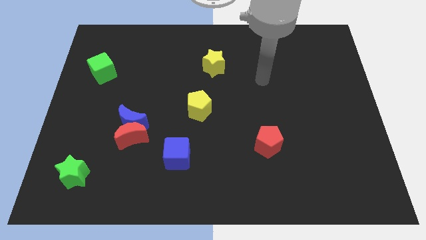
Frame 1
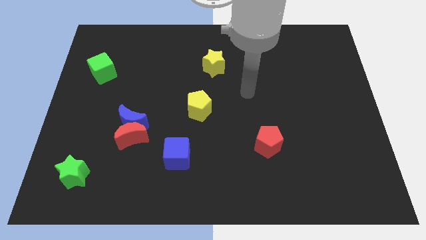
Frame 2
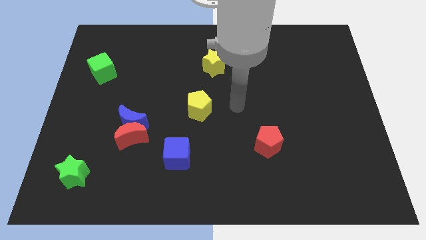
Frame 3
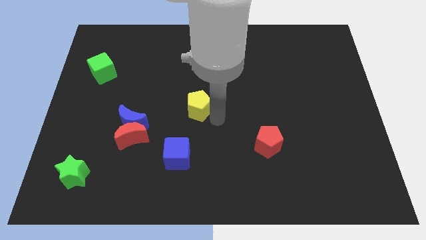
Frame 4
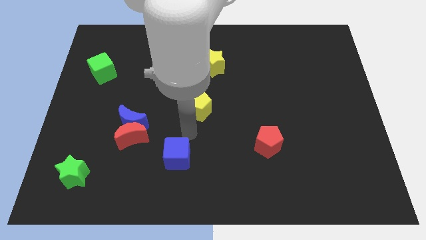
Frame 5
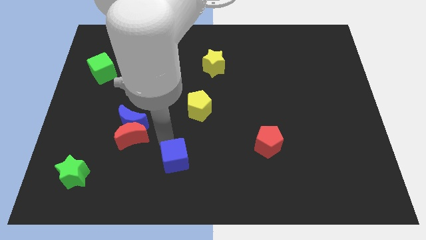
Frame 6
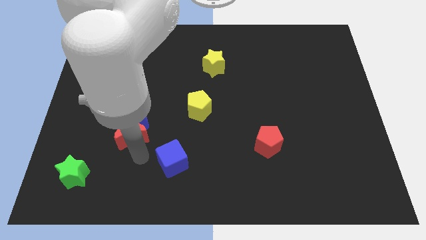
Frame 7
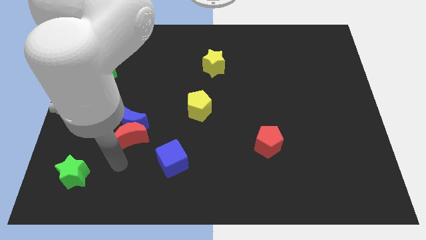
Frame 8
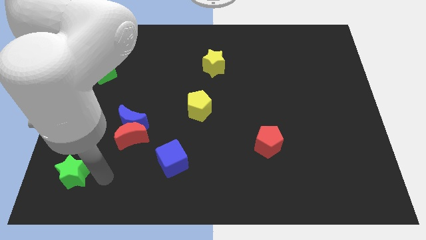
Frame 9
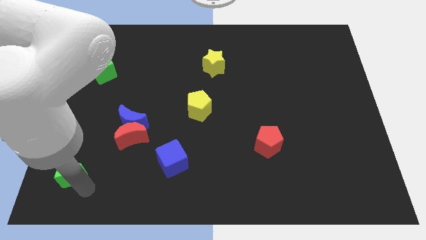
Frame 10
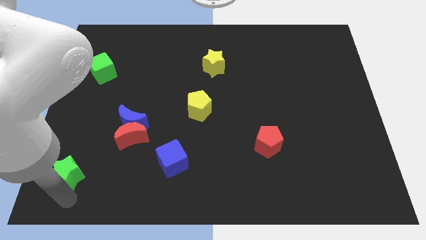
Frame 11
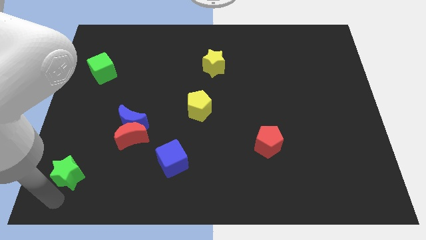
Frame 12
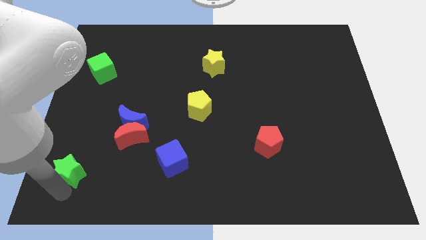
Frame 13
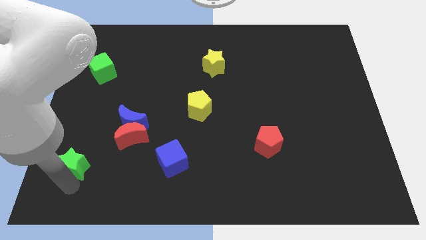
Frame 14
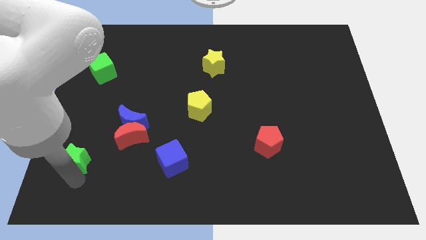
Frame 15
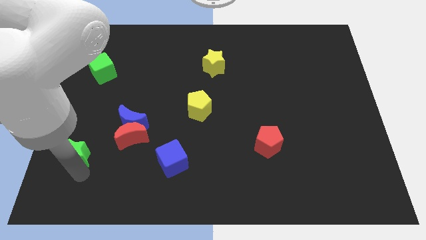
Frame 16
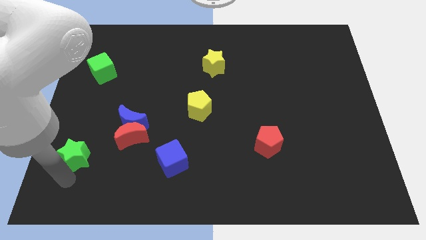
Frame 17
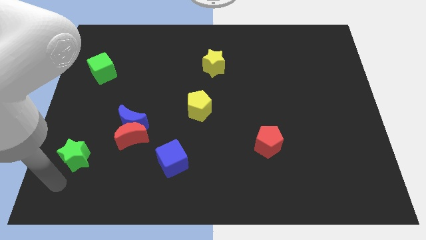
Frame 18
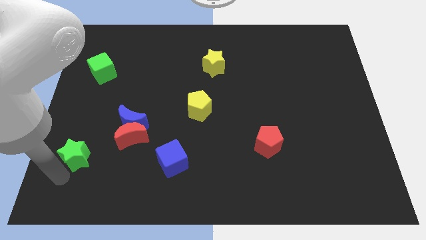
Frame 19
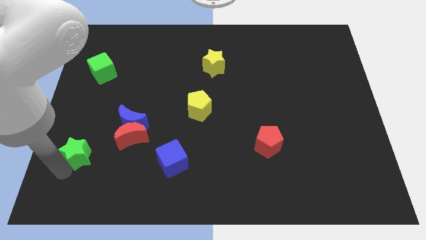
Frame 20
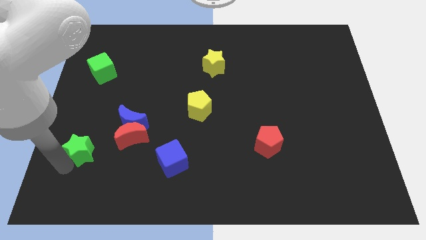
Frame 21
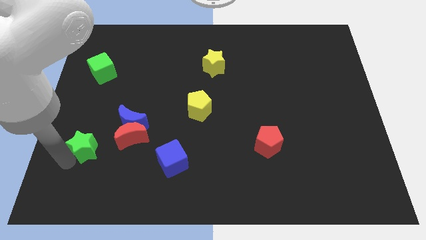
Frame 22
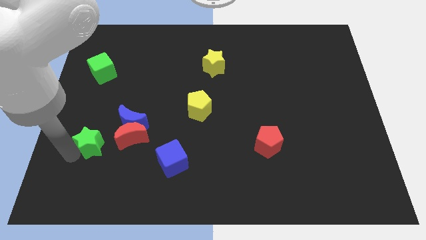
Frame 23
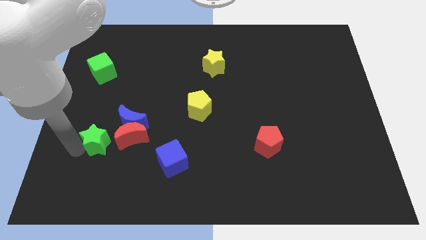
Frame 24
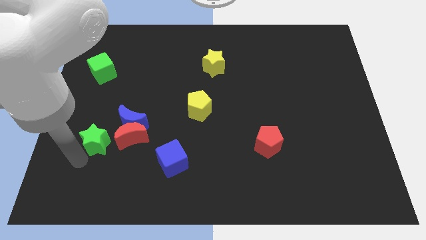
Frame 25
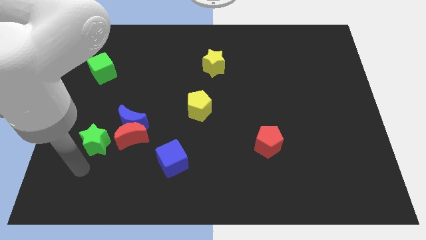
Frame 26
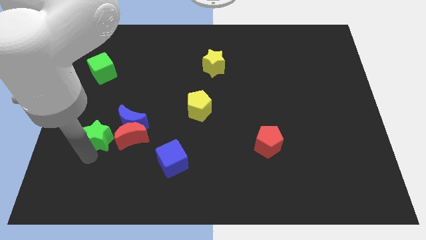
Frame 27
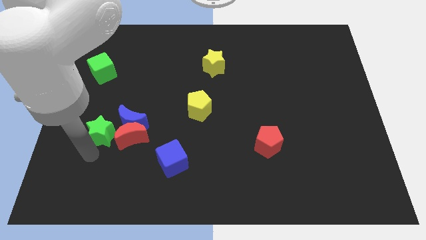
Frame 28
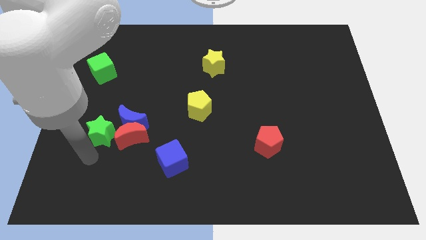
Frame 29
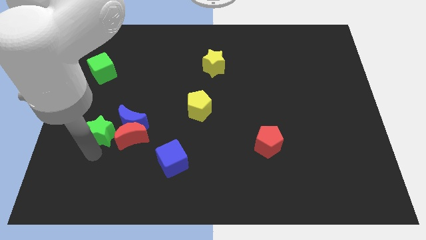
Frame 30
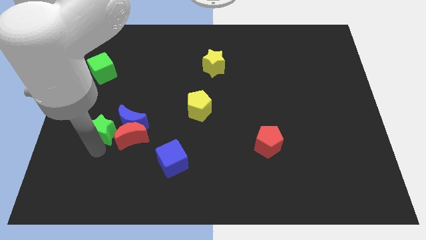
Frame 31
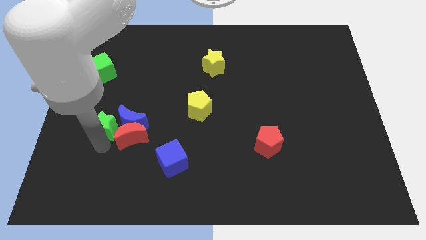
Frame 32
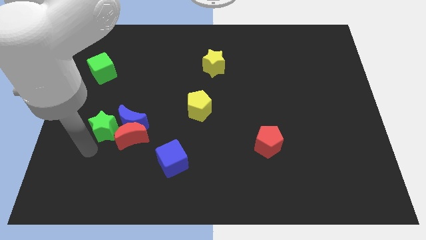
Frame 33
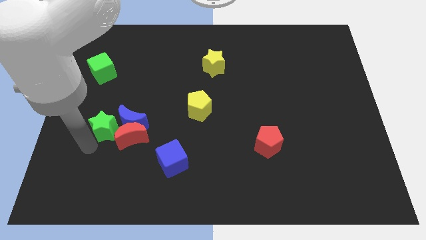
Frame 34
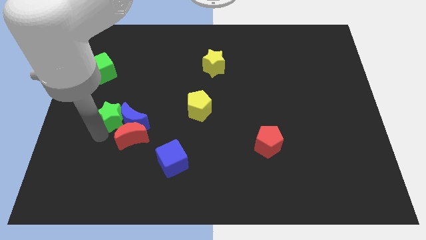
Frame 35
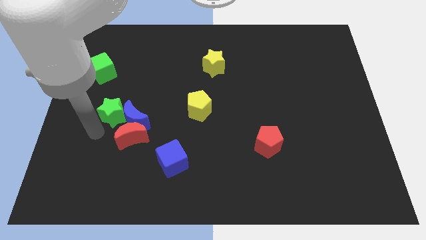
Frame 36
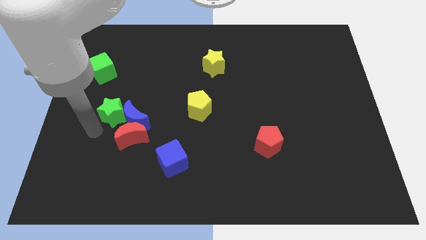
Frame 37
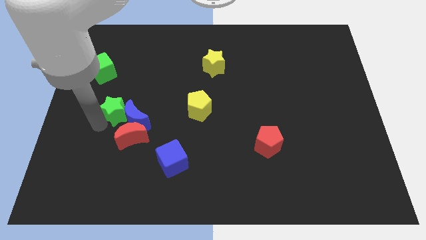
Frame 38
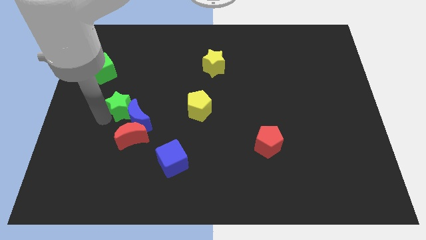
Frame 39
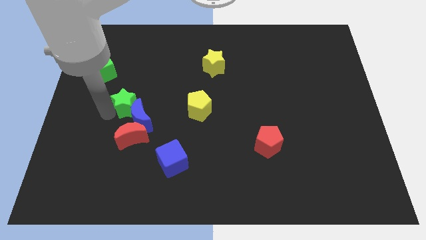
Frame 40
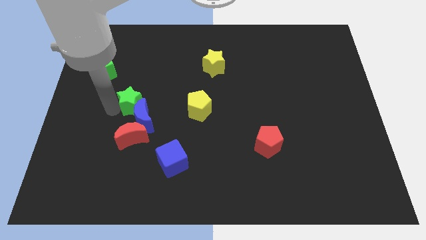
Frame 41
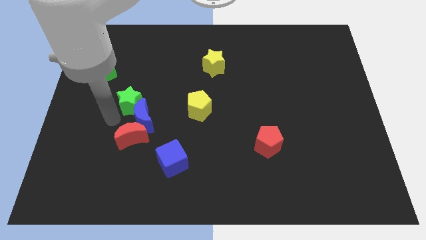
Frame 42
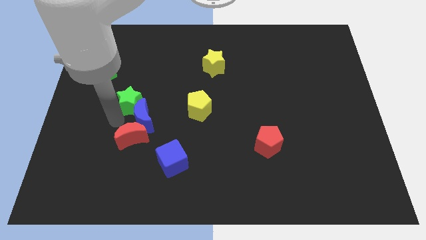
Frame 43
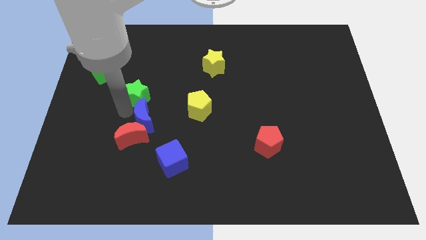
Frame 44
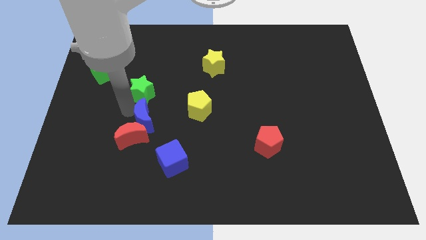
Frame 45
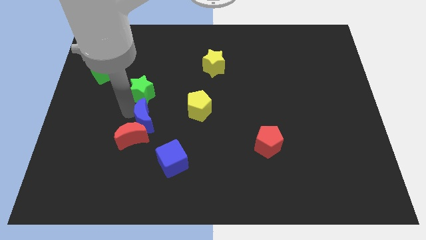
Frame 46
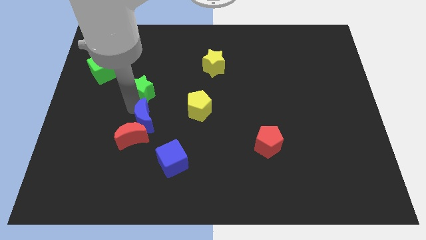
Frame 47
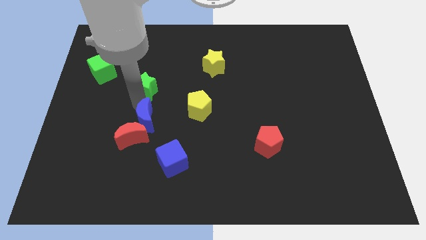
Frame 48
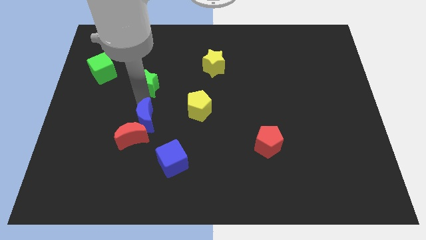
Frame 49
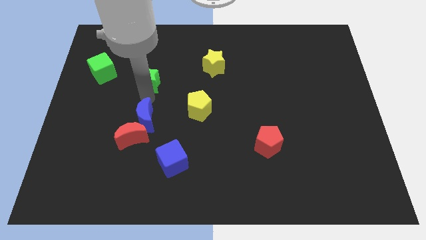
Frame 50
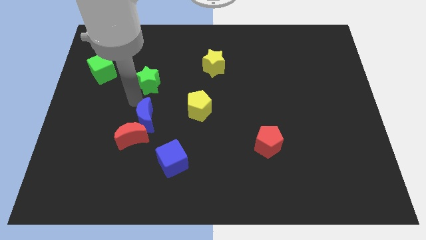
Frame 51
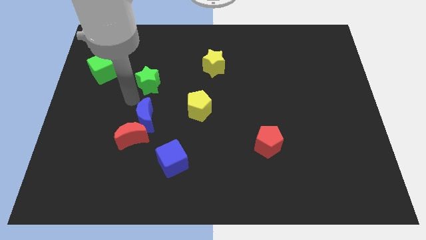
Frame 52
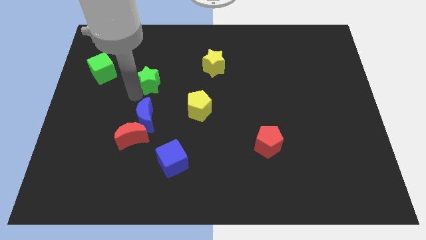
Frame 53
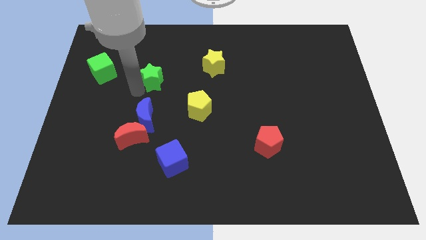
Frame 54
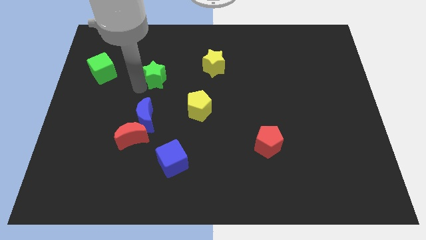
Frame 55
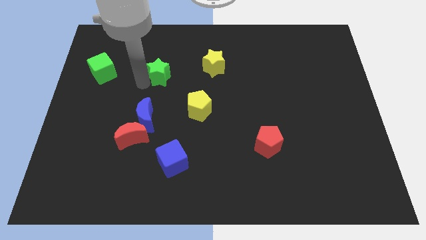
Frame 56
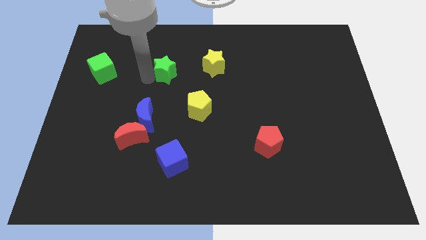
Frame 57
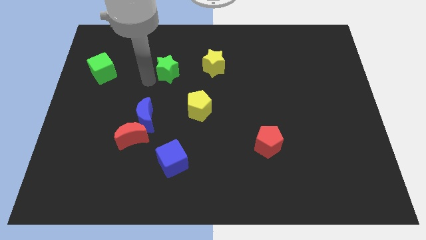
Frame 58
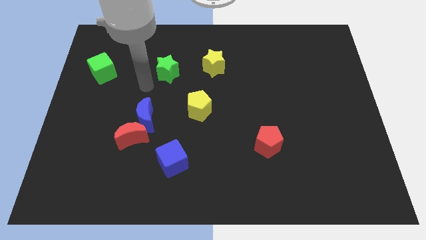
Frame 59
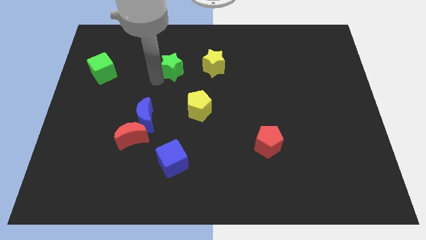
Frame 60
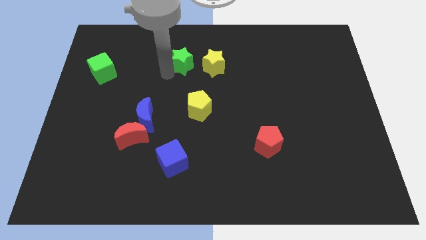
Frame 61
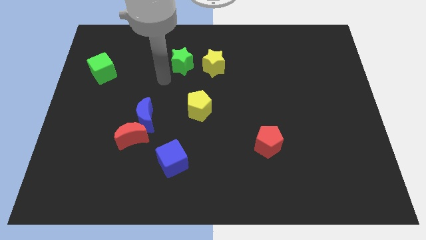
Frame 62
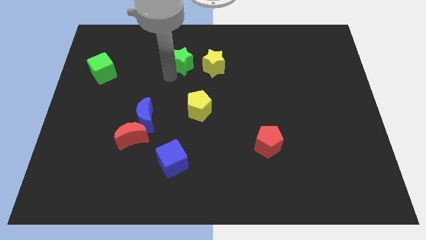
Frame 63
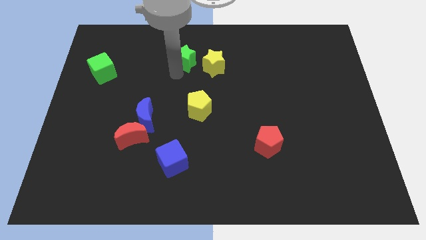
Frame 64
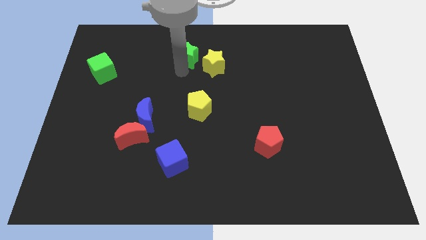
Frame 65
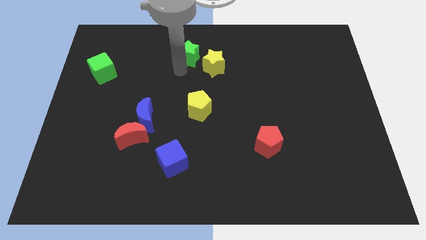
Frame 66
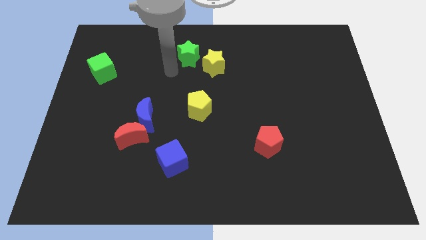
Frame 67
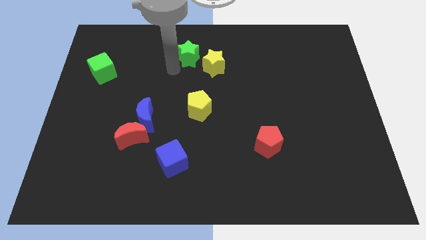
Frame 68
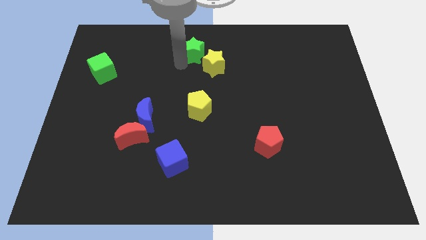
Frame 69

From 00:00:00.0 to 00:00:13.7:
push the green star to the top
